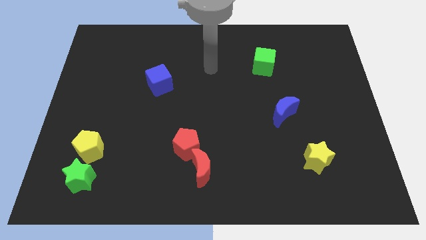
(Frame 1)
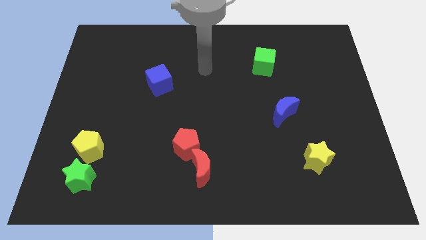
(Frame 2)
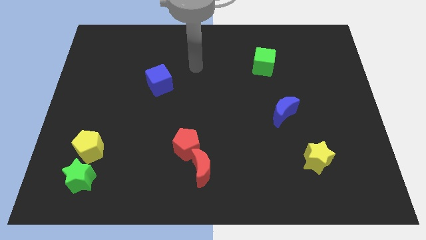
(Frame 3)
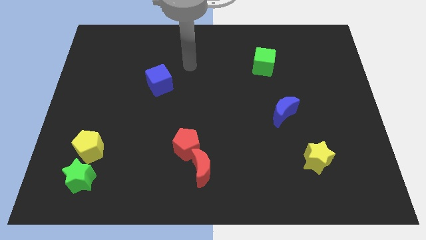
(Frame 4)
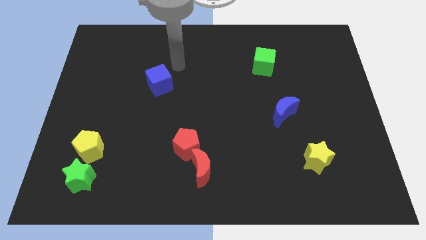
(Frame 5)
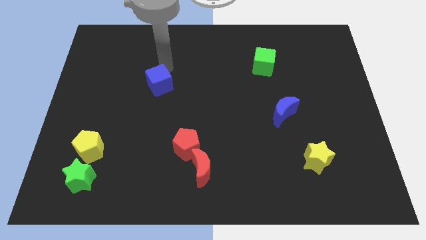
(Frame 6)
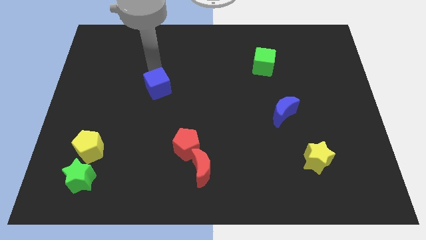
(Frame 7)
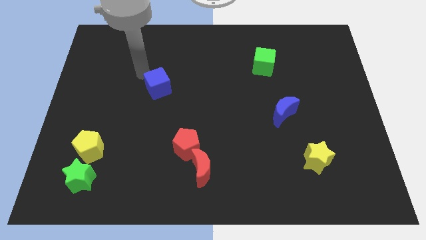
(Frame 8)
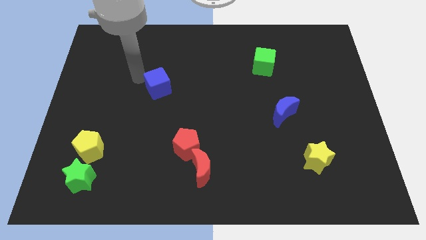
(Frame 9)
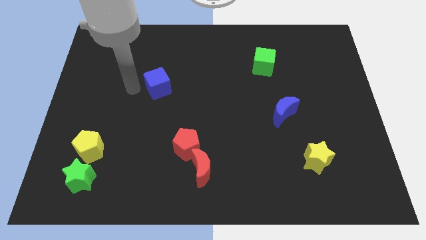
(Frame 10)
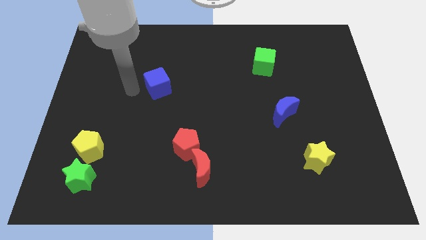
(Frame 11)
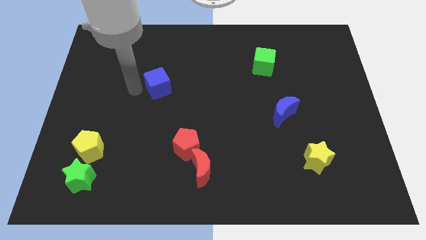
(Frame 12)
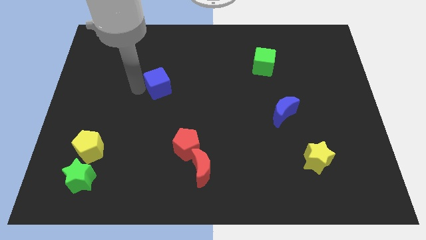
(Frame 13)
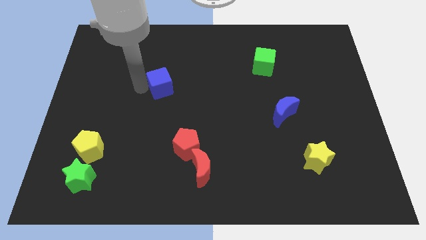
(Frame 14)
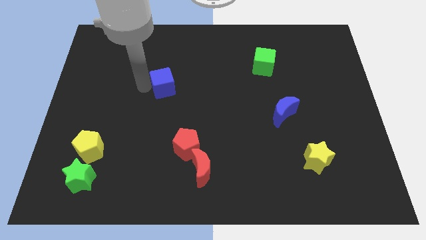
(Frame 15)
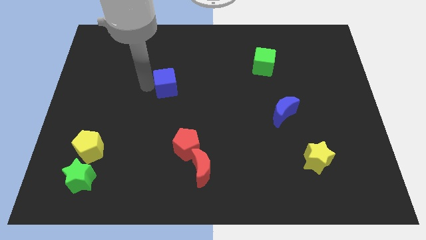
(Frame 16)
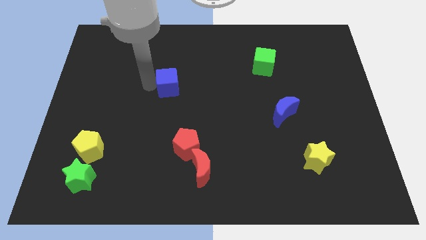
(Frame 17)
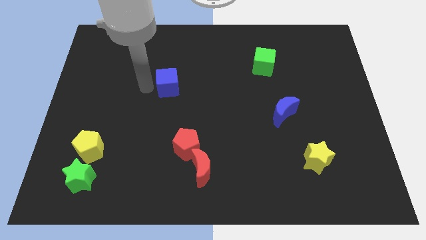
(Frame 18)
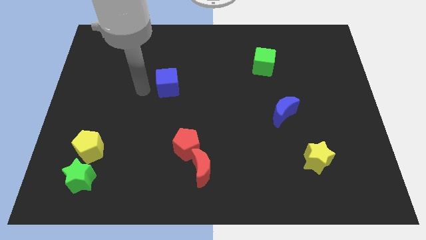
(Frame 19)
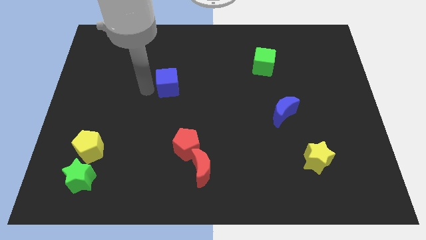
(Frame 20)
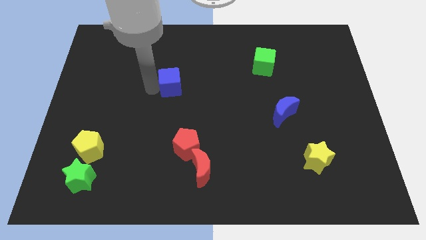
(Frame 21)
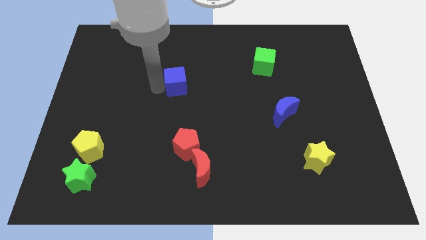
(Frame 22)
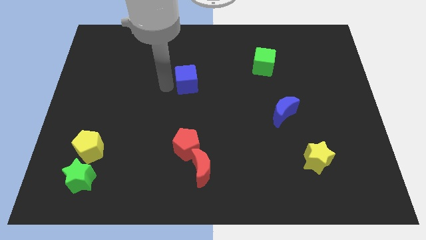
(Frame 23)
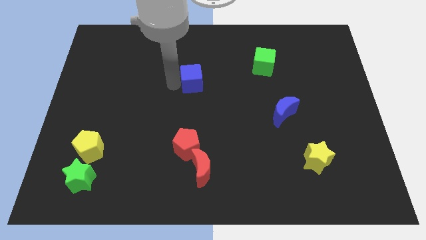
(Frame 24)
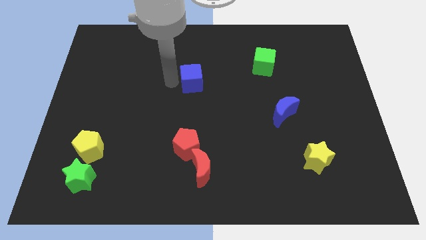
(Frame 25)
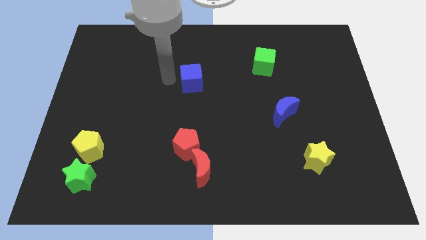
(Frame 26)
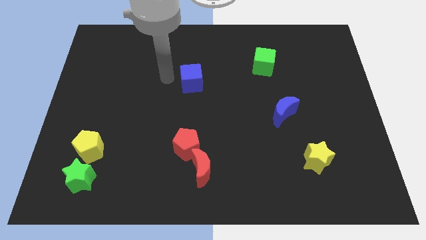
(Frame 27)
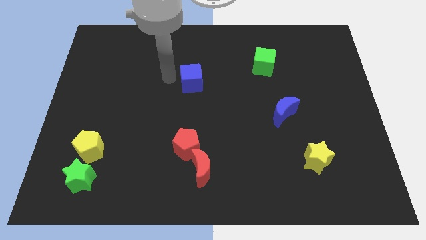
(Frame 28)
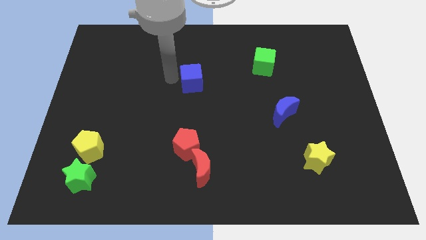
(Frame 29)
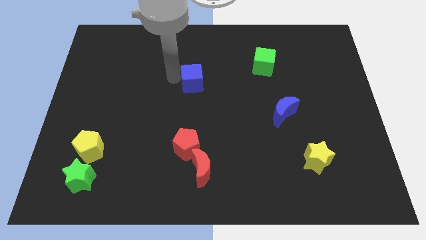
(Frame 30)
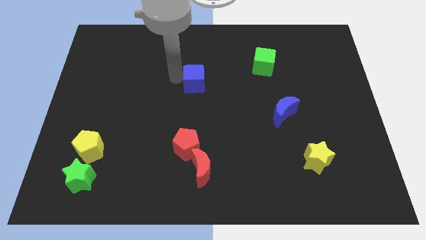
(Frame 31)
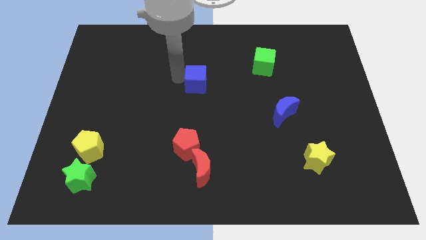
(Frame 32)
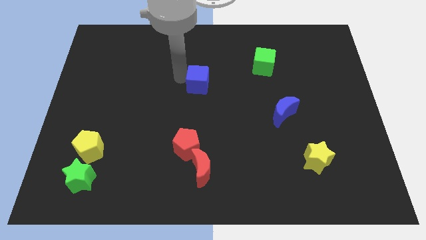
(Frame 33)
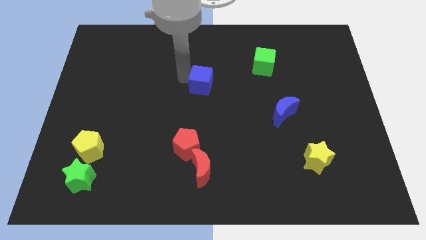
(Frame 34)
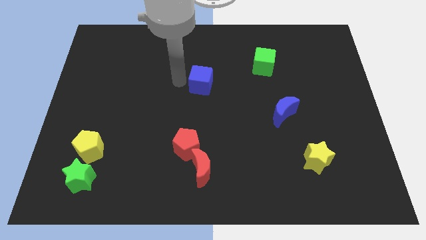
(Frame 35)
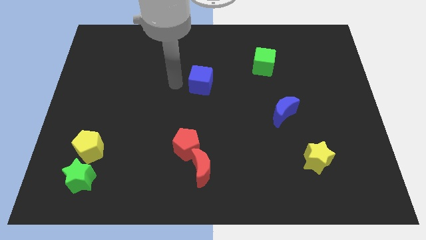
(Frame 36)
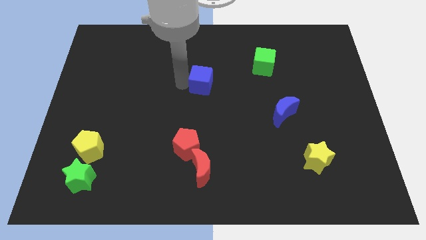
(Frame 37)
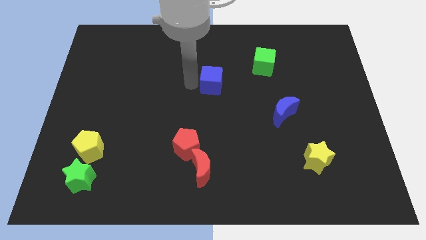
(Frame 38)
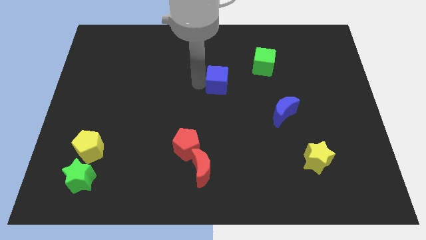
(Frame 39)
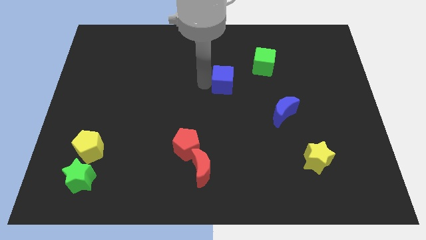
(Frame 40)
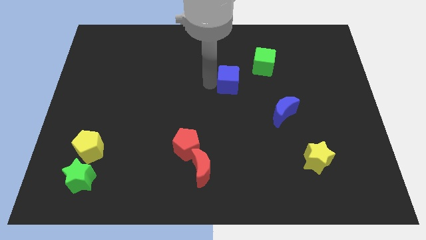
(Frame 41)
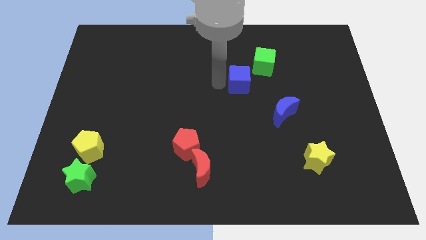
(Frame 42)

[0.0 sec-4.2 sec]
push the blue cube right

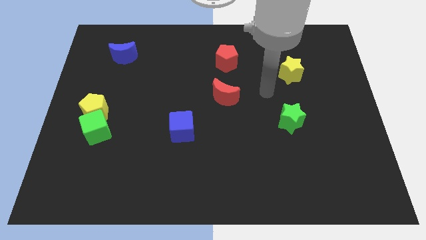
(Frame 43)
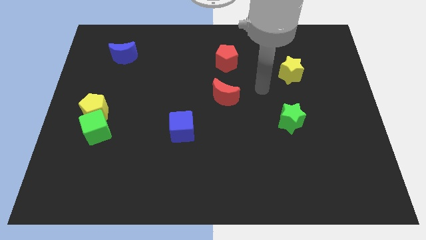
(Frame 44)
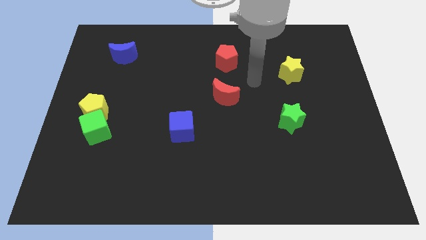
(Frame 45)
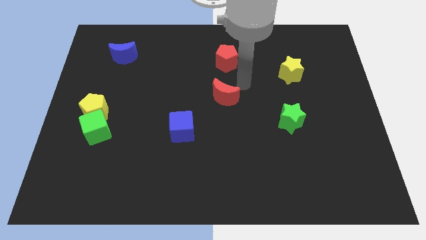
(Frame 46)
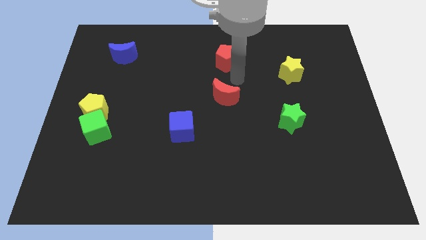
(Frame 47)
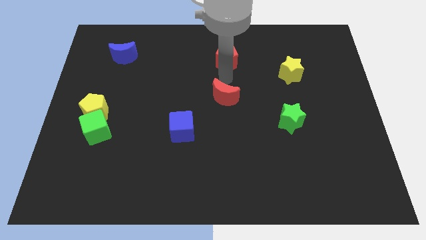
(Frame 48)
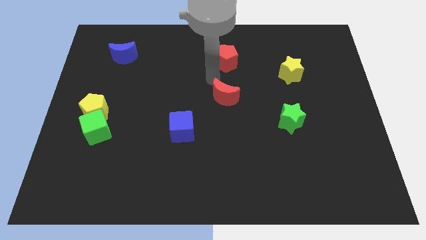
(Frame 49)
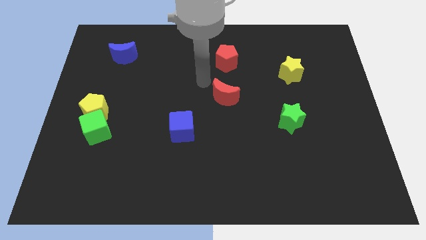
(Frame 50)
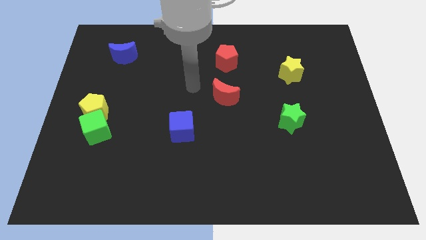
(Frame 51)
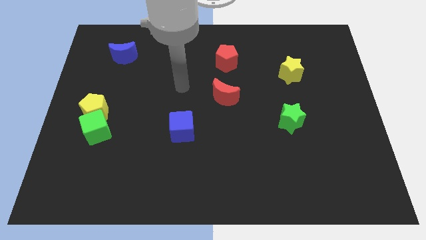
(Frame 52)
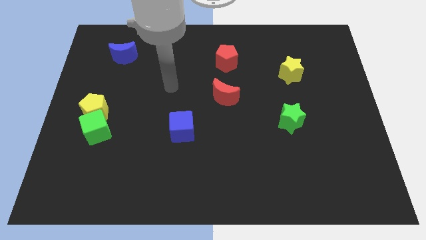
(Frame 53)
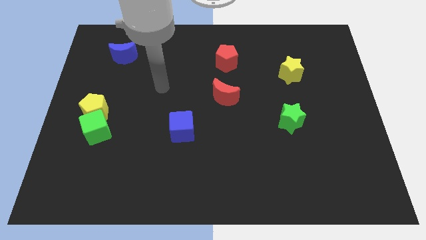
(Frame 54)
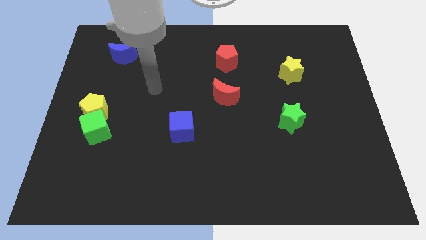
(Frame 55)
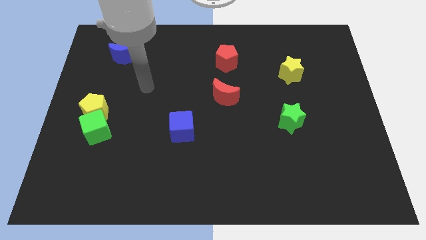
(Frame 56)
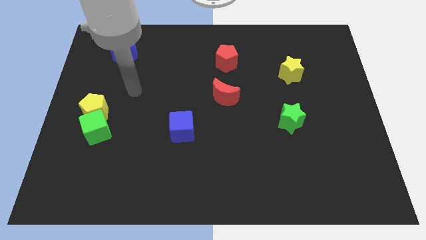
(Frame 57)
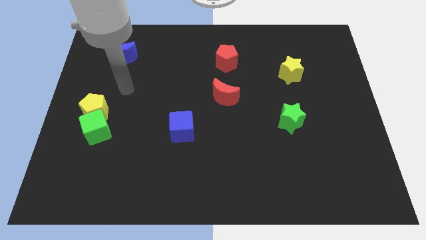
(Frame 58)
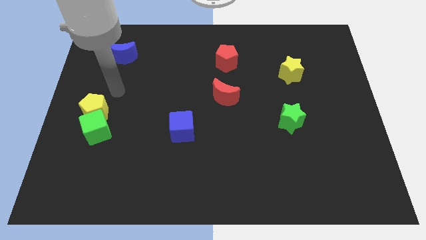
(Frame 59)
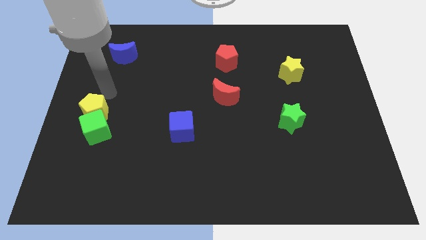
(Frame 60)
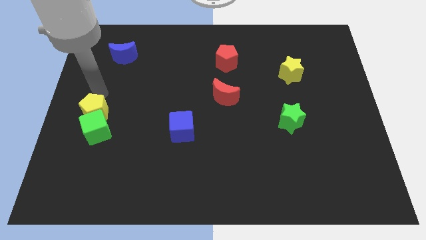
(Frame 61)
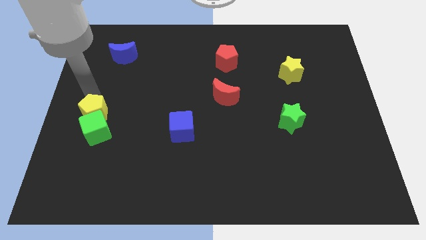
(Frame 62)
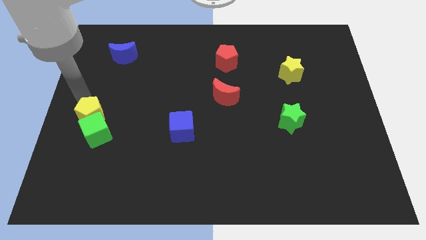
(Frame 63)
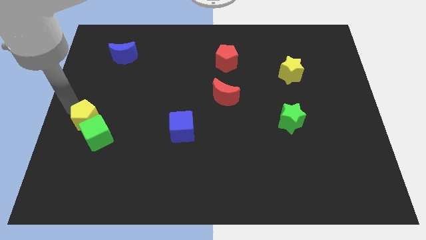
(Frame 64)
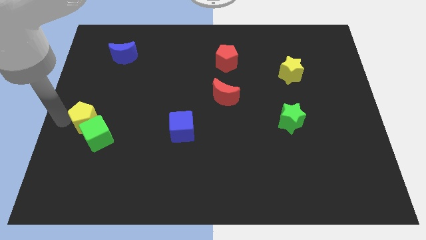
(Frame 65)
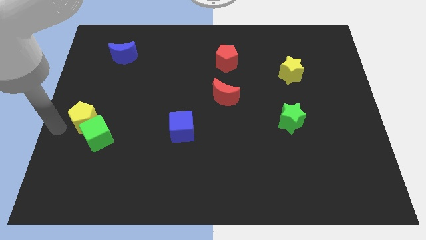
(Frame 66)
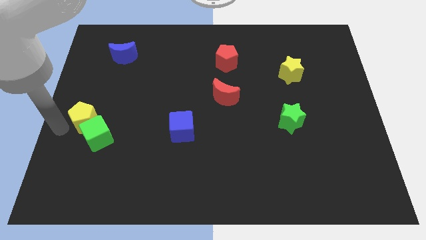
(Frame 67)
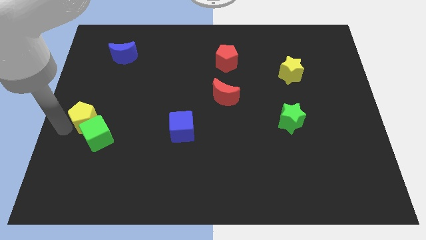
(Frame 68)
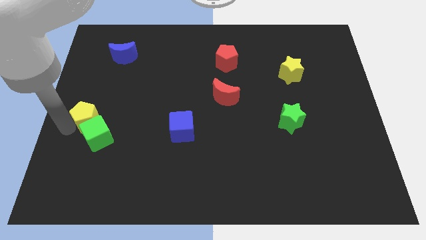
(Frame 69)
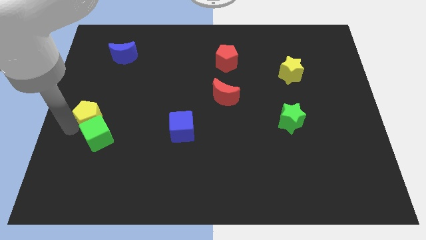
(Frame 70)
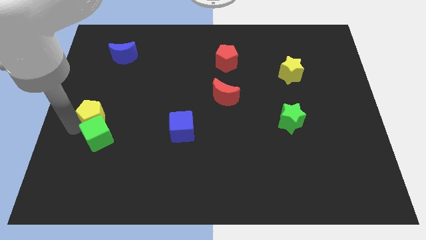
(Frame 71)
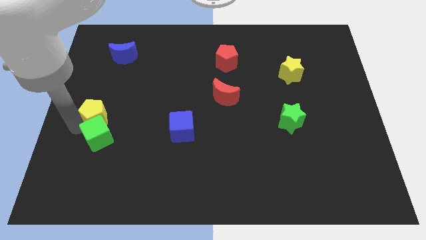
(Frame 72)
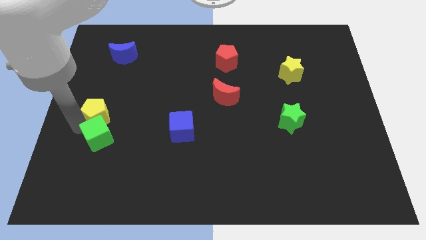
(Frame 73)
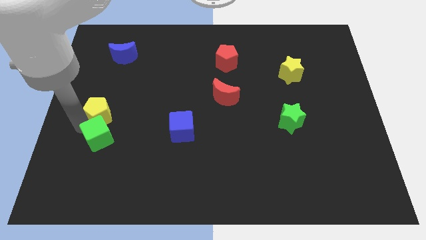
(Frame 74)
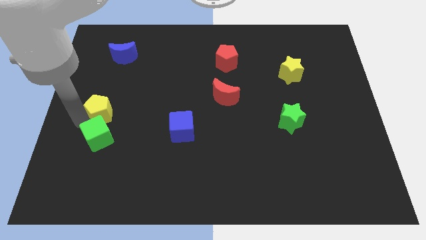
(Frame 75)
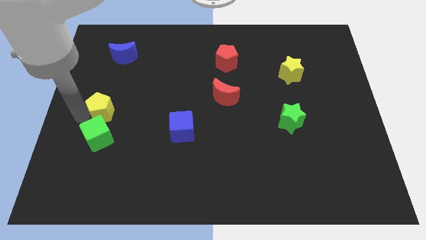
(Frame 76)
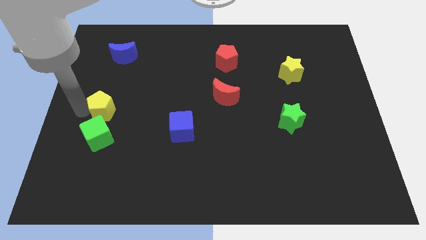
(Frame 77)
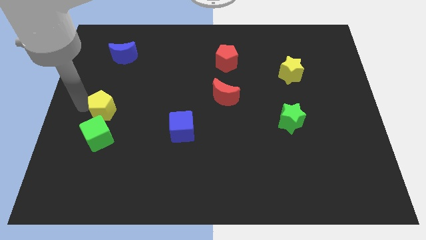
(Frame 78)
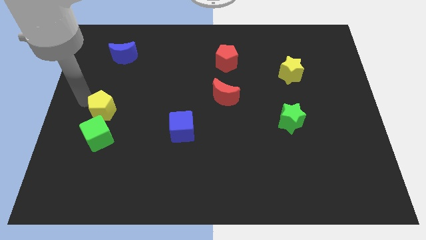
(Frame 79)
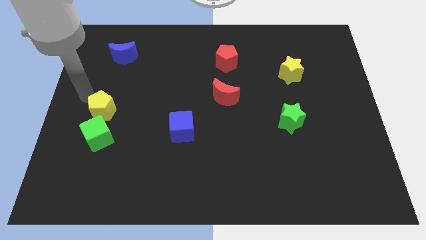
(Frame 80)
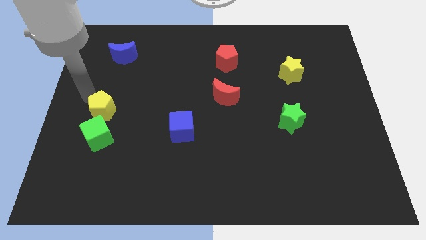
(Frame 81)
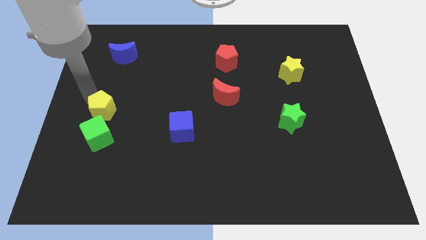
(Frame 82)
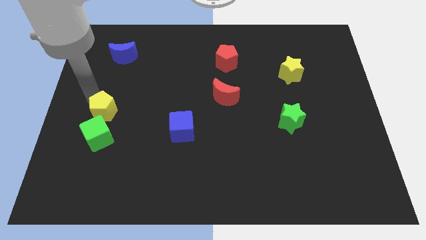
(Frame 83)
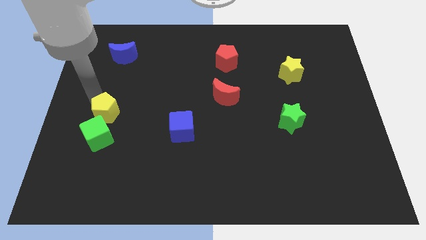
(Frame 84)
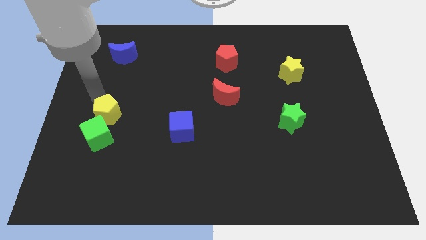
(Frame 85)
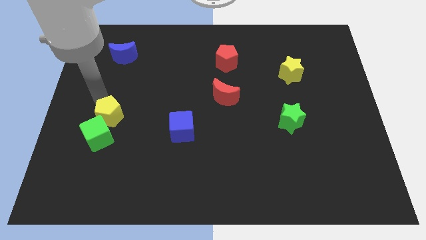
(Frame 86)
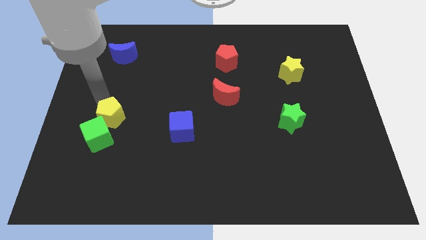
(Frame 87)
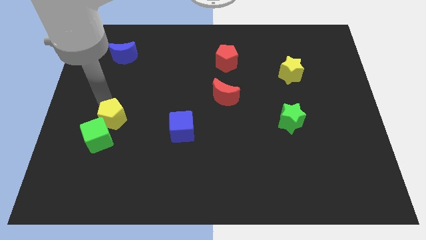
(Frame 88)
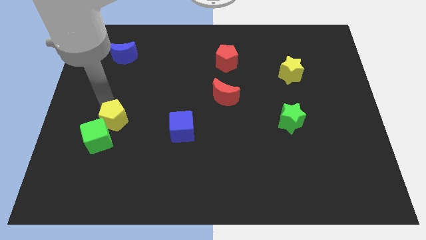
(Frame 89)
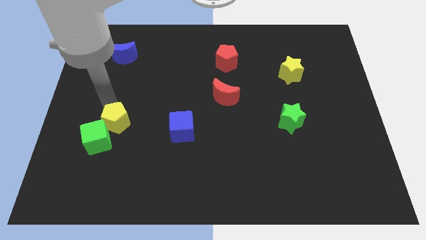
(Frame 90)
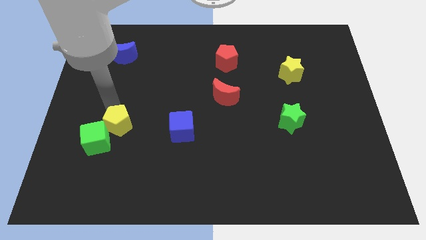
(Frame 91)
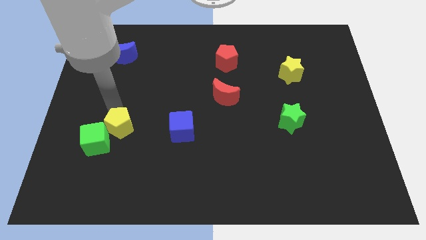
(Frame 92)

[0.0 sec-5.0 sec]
slide the yellow pentagon diagonally down and right a little bit
